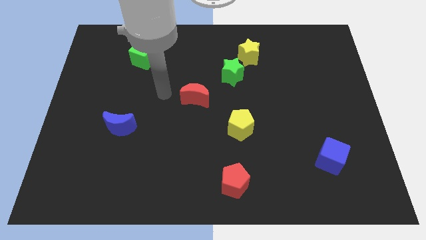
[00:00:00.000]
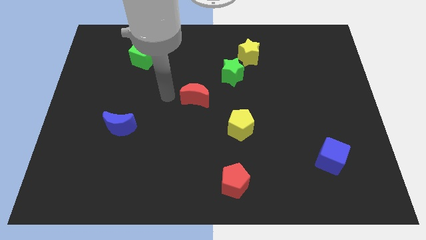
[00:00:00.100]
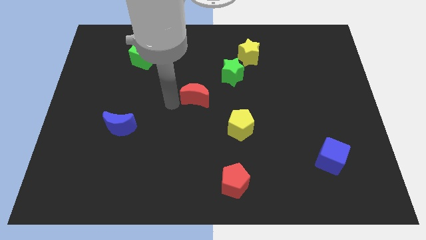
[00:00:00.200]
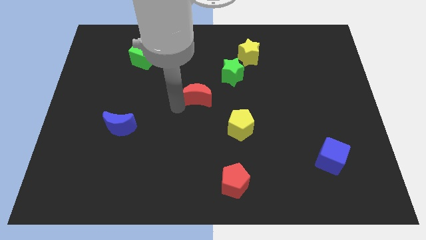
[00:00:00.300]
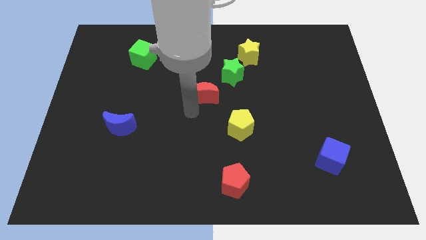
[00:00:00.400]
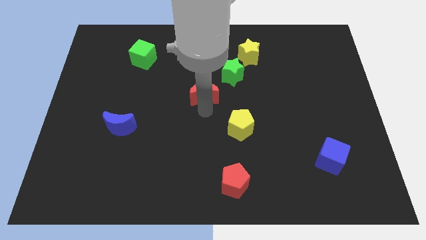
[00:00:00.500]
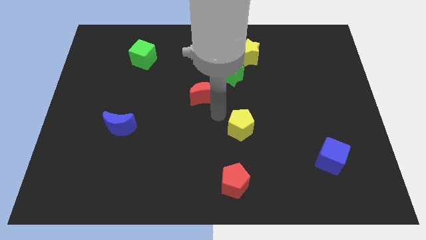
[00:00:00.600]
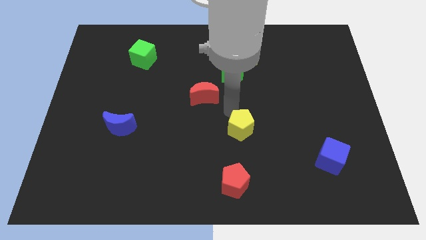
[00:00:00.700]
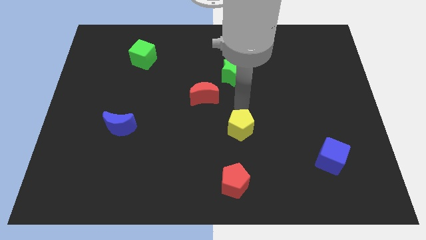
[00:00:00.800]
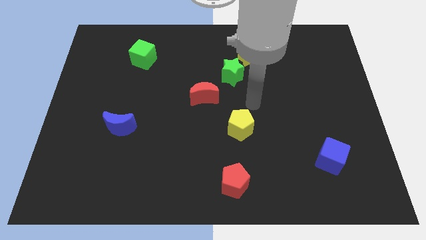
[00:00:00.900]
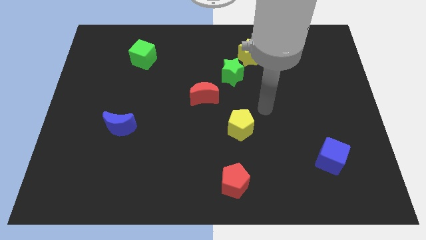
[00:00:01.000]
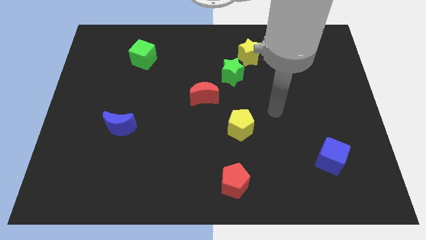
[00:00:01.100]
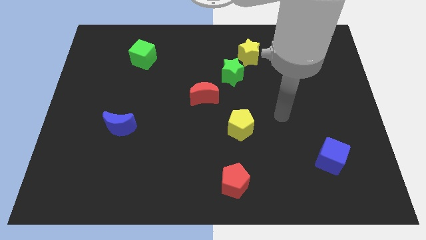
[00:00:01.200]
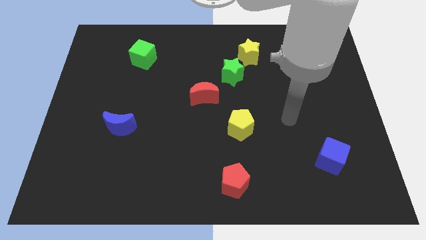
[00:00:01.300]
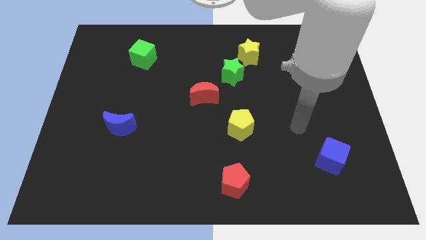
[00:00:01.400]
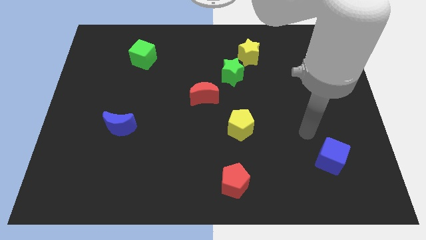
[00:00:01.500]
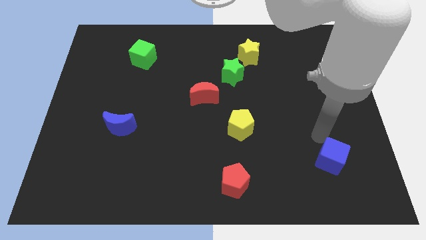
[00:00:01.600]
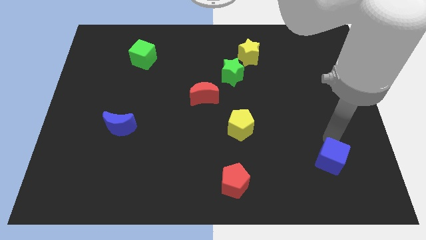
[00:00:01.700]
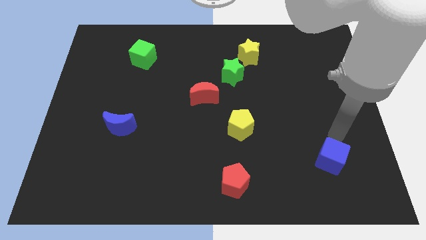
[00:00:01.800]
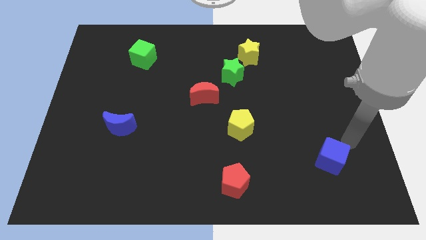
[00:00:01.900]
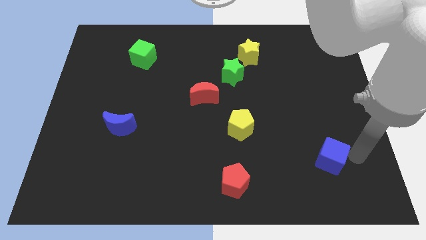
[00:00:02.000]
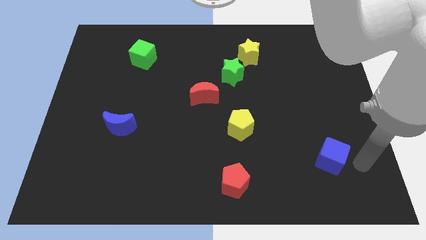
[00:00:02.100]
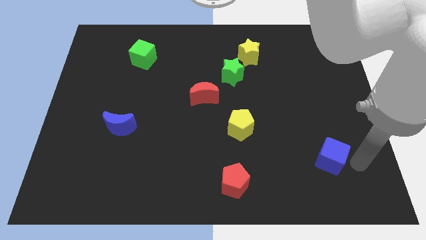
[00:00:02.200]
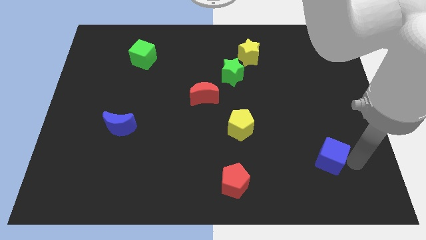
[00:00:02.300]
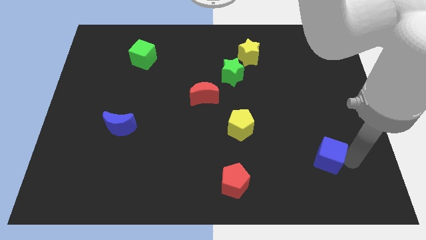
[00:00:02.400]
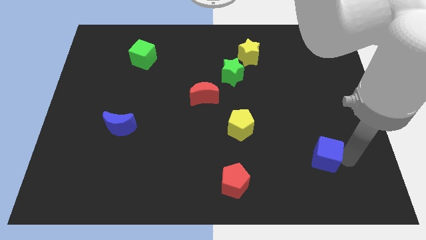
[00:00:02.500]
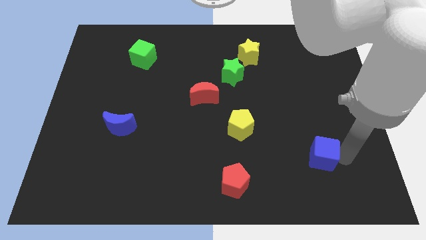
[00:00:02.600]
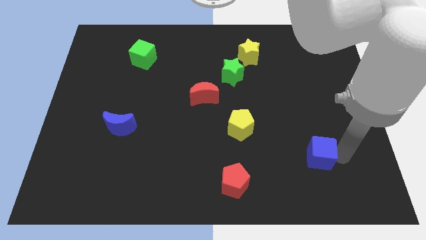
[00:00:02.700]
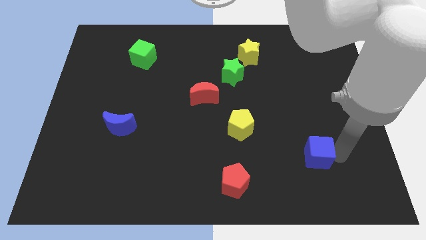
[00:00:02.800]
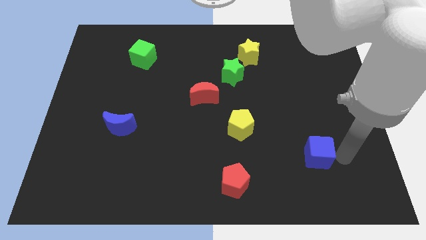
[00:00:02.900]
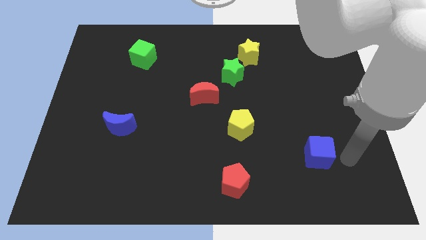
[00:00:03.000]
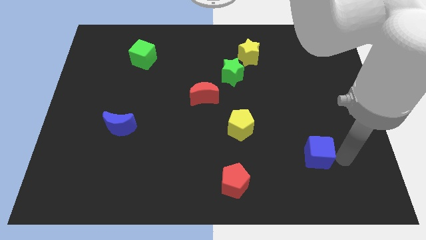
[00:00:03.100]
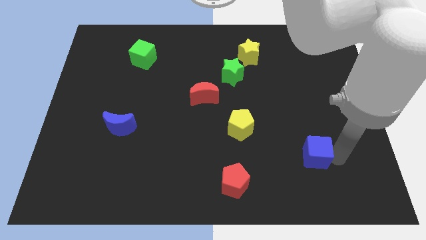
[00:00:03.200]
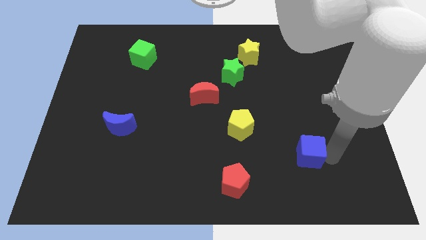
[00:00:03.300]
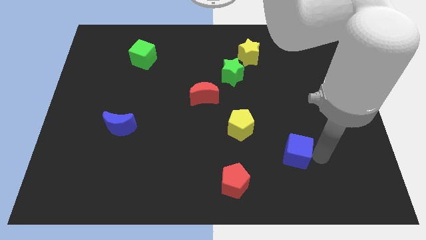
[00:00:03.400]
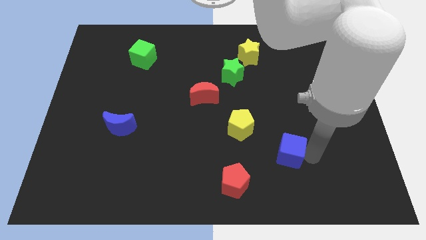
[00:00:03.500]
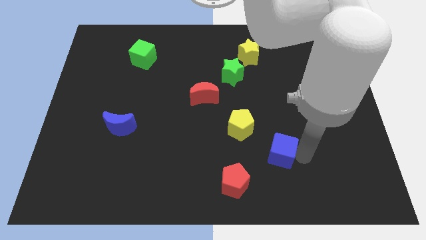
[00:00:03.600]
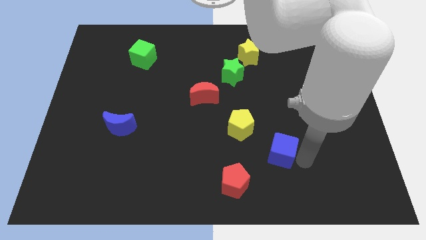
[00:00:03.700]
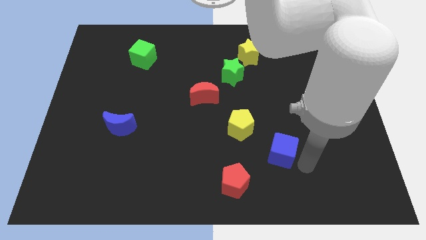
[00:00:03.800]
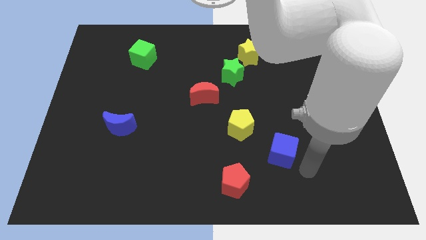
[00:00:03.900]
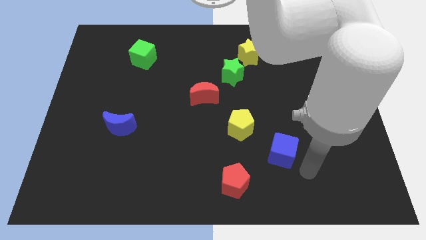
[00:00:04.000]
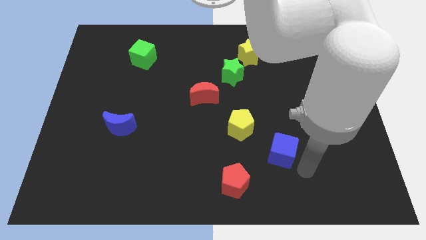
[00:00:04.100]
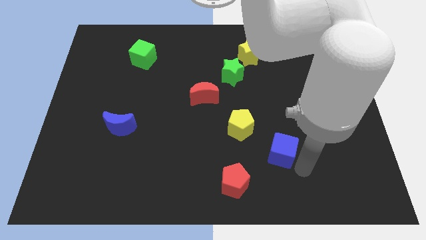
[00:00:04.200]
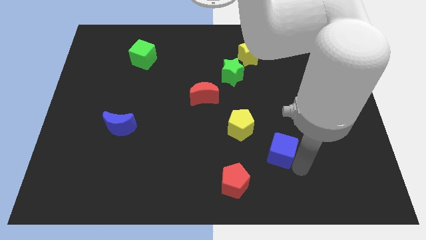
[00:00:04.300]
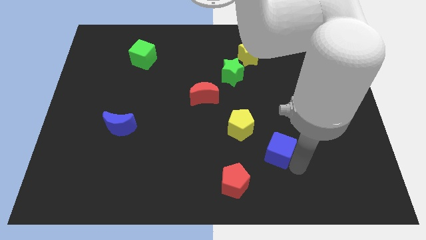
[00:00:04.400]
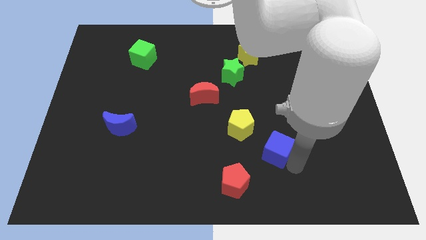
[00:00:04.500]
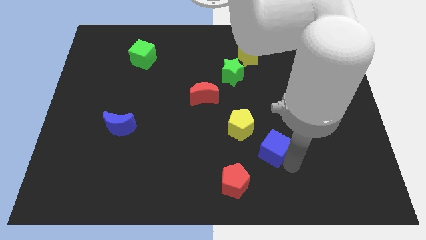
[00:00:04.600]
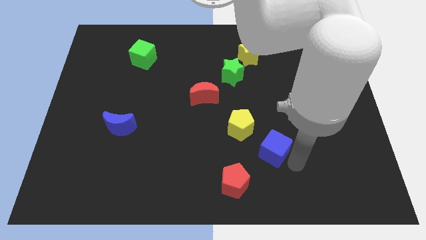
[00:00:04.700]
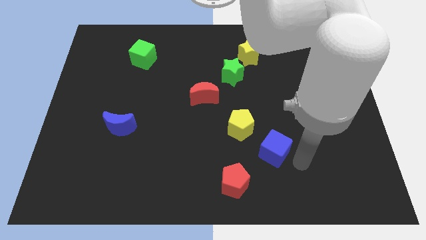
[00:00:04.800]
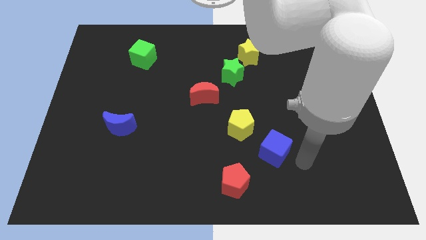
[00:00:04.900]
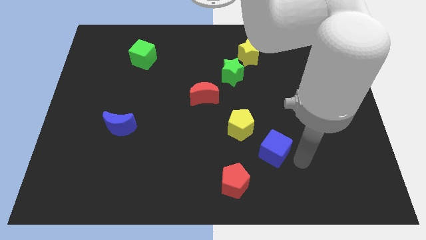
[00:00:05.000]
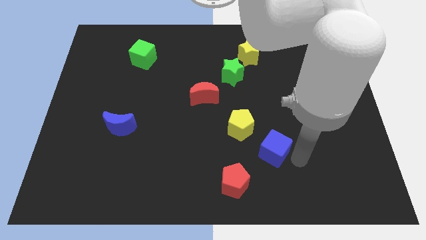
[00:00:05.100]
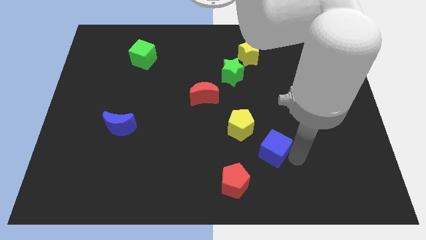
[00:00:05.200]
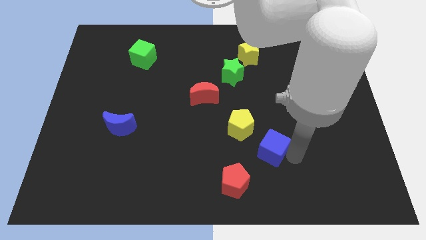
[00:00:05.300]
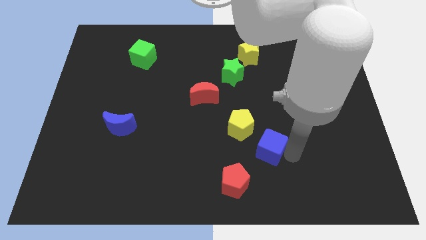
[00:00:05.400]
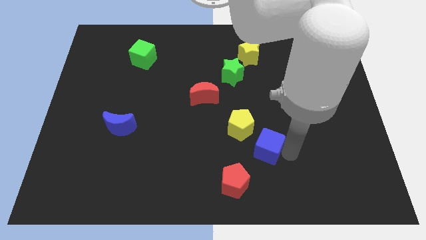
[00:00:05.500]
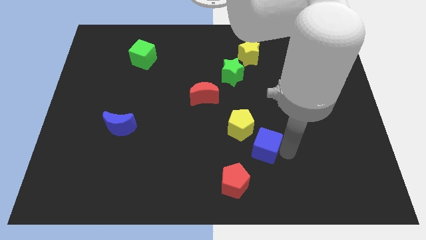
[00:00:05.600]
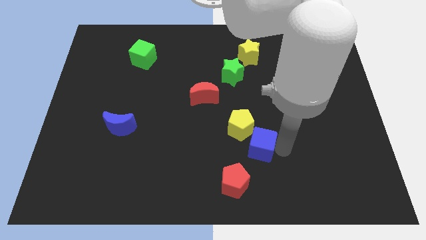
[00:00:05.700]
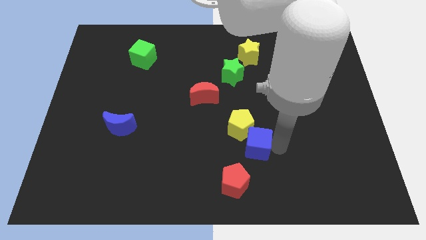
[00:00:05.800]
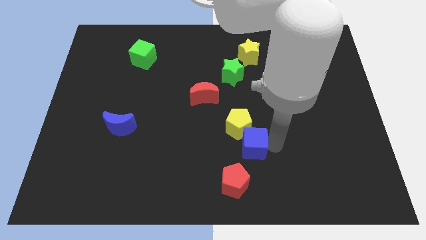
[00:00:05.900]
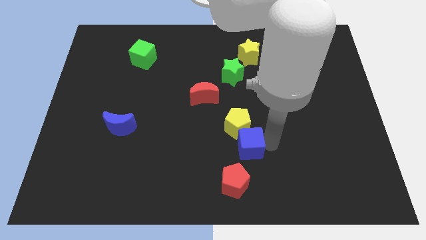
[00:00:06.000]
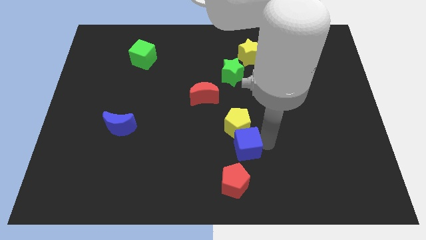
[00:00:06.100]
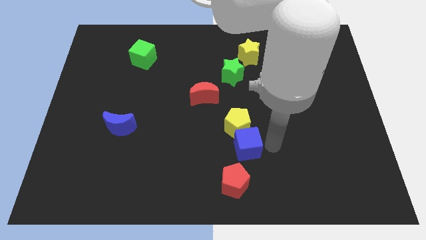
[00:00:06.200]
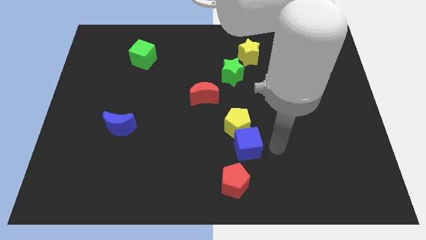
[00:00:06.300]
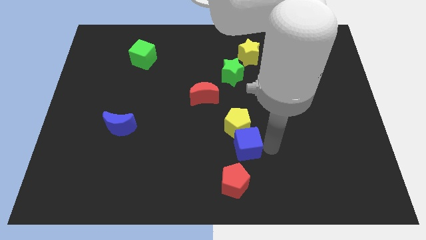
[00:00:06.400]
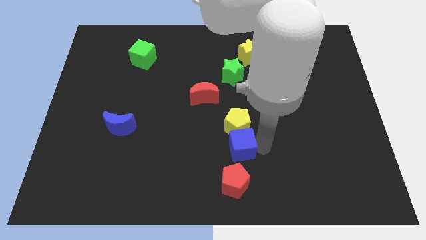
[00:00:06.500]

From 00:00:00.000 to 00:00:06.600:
move the blue cube to the bottom left side of the yellow pentagon

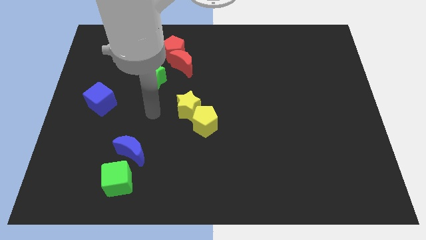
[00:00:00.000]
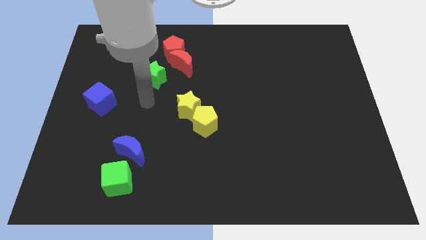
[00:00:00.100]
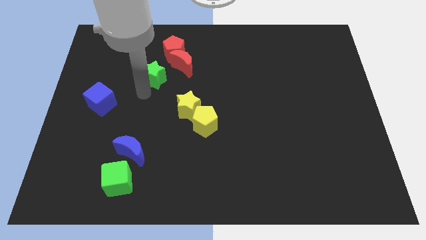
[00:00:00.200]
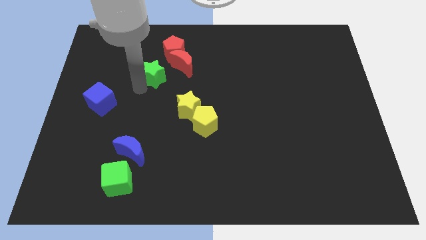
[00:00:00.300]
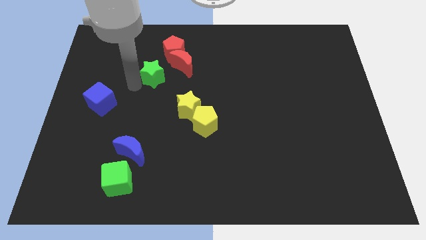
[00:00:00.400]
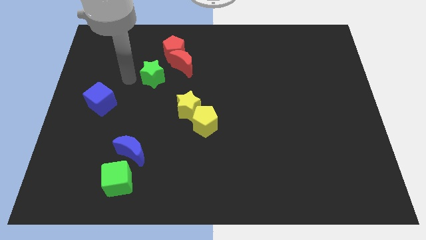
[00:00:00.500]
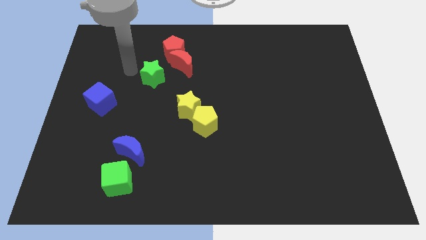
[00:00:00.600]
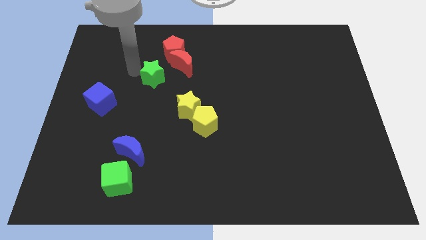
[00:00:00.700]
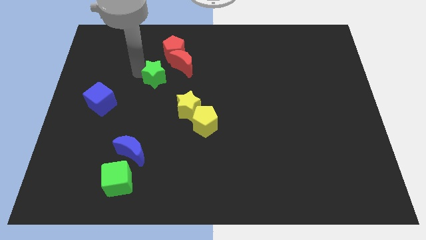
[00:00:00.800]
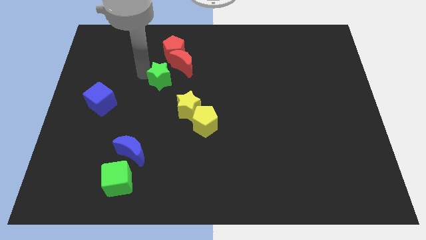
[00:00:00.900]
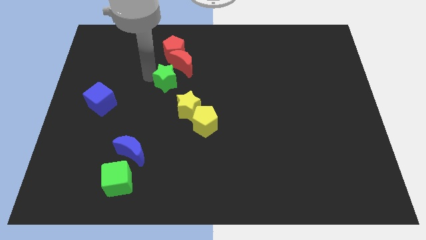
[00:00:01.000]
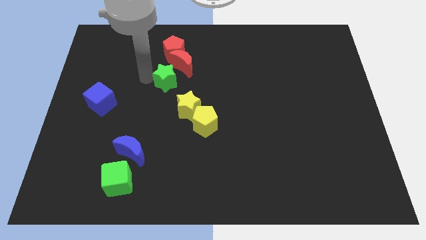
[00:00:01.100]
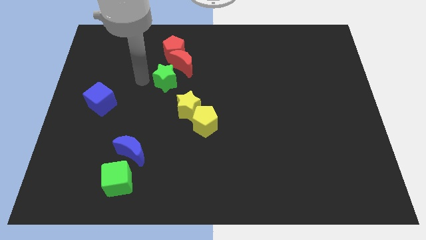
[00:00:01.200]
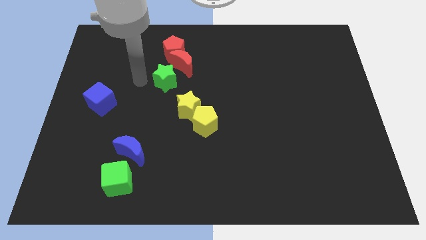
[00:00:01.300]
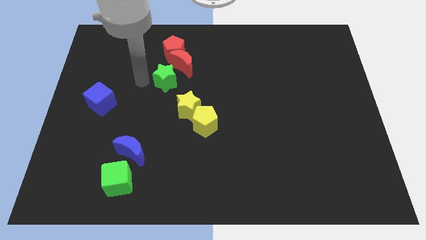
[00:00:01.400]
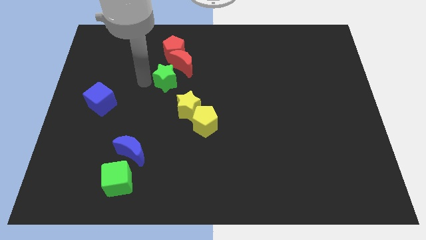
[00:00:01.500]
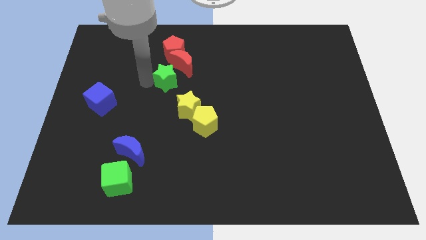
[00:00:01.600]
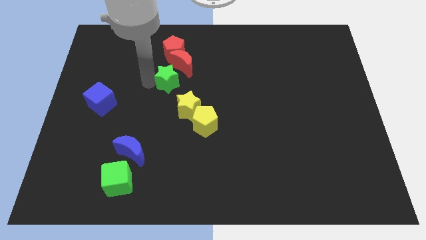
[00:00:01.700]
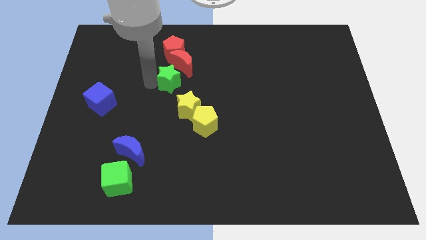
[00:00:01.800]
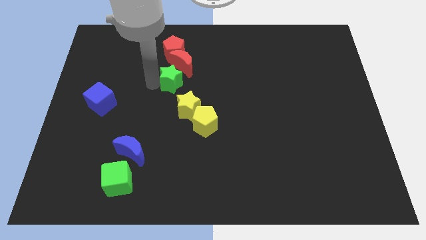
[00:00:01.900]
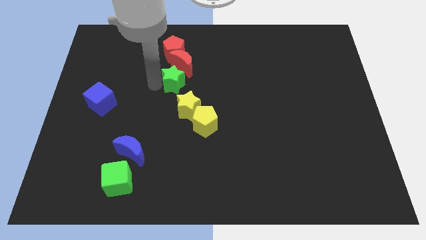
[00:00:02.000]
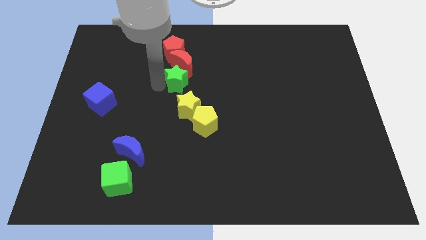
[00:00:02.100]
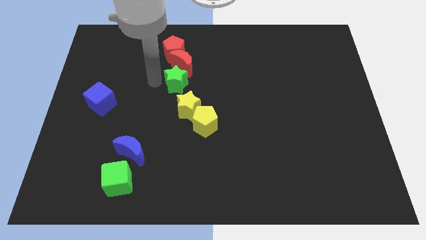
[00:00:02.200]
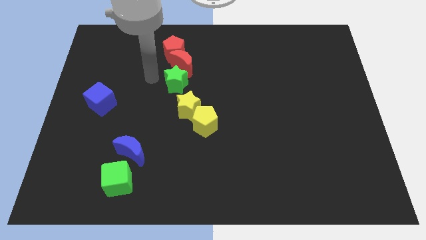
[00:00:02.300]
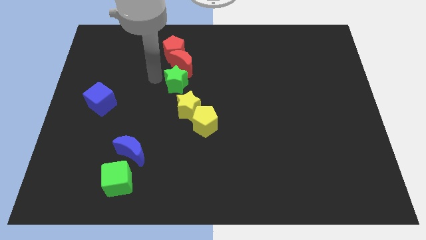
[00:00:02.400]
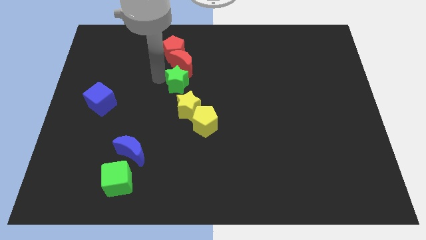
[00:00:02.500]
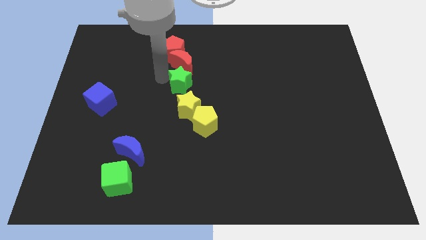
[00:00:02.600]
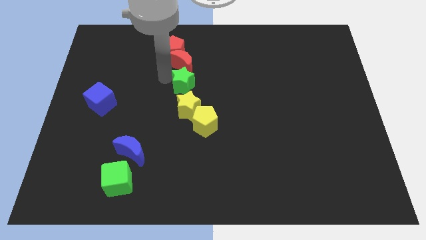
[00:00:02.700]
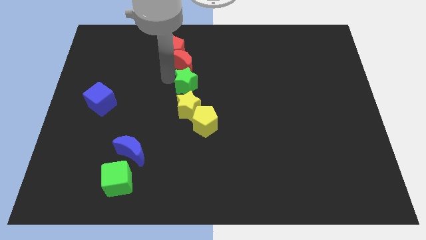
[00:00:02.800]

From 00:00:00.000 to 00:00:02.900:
push the green star above the yellow pentagon
